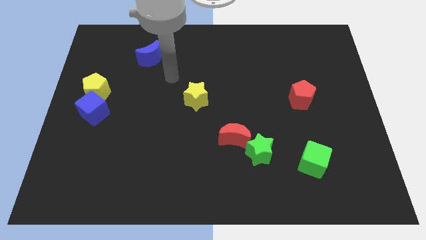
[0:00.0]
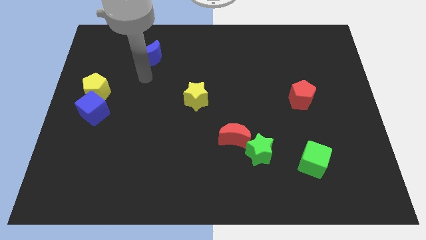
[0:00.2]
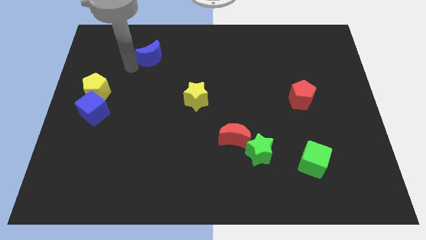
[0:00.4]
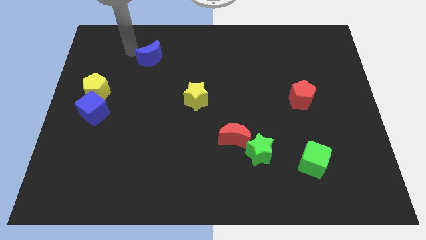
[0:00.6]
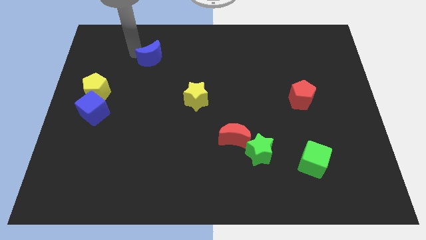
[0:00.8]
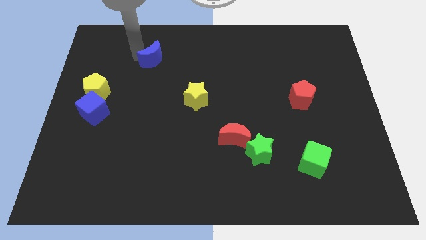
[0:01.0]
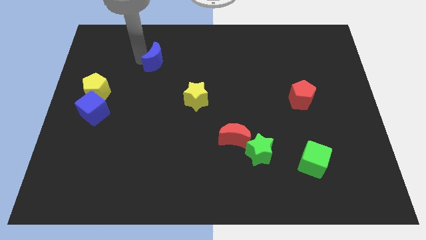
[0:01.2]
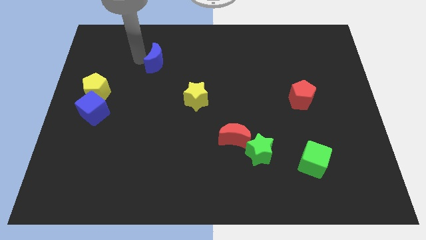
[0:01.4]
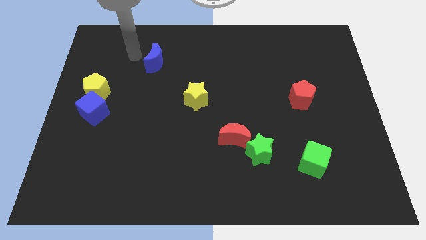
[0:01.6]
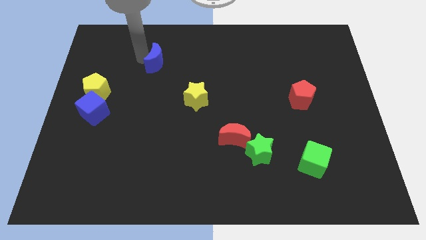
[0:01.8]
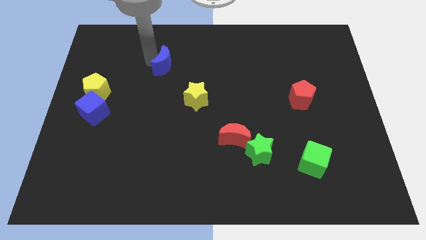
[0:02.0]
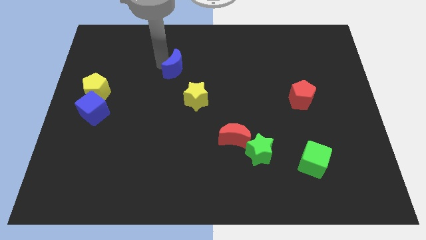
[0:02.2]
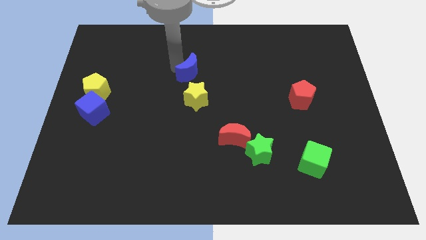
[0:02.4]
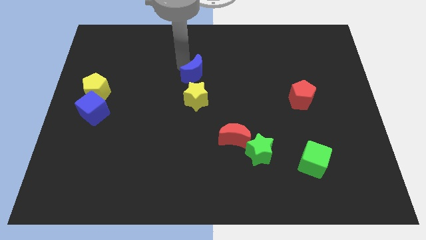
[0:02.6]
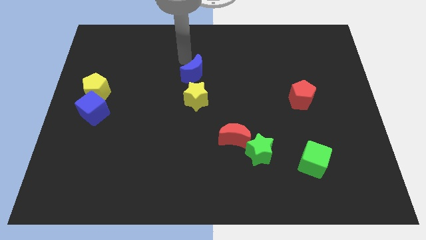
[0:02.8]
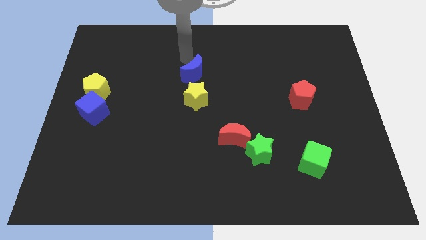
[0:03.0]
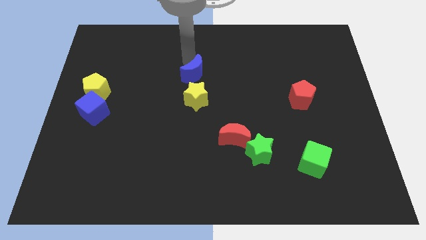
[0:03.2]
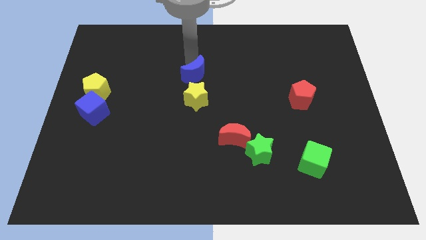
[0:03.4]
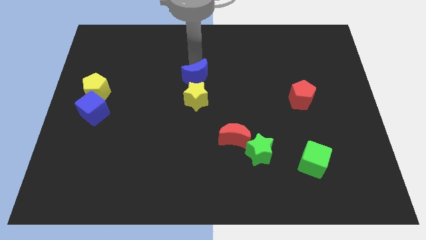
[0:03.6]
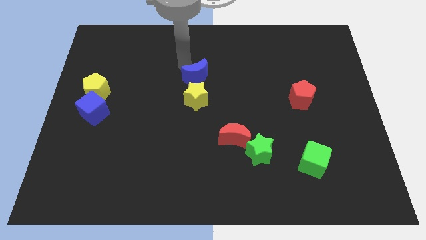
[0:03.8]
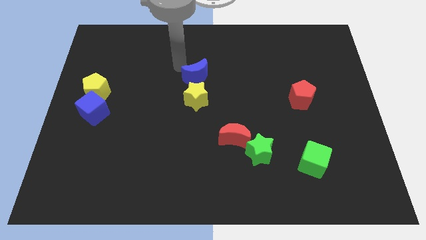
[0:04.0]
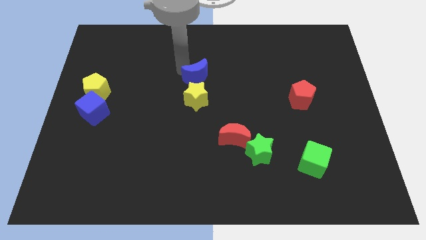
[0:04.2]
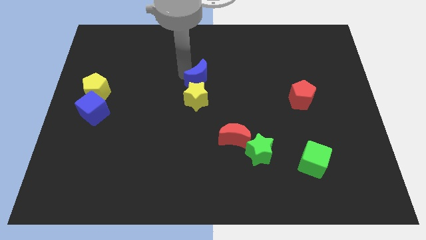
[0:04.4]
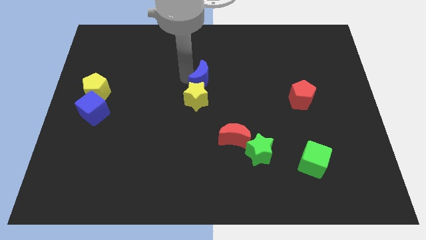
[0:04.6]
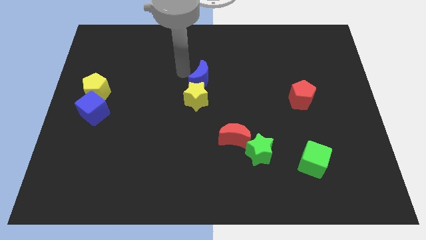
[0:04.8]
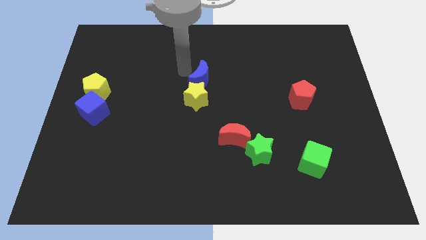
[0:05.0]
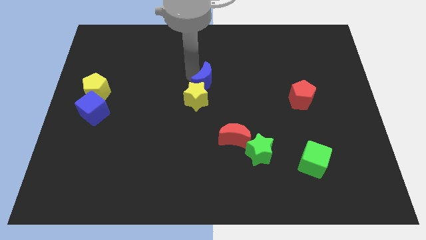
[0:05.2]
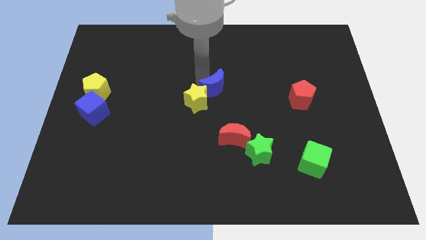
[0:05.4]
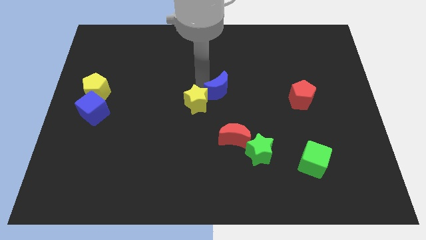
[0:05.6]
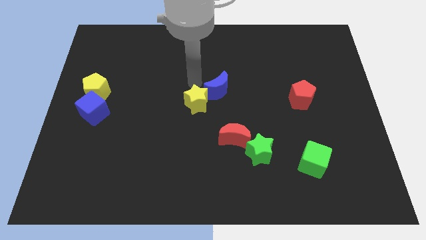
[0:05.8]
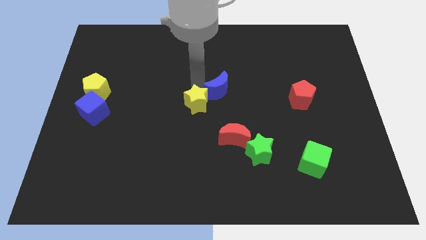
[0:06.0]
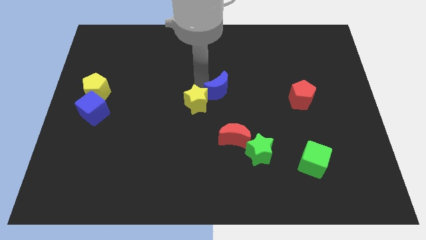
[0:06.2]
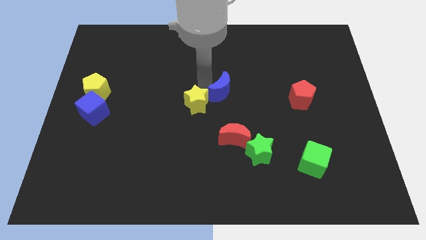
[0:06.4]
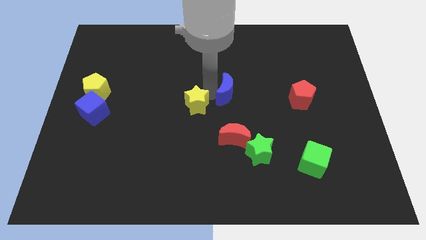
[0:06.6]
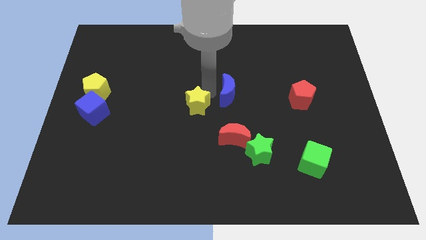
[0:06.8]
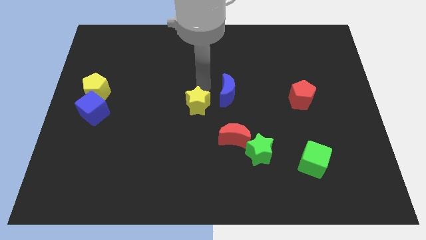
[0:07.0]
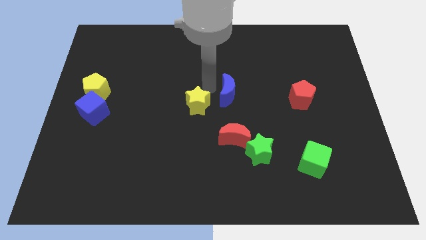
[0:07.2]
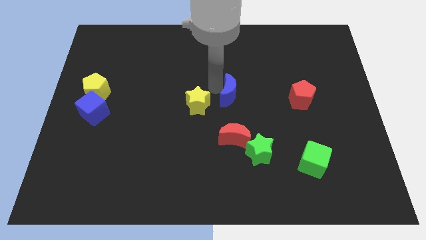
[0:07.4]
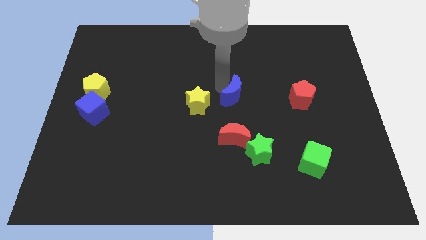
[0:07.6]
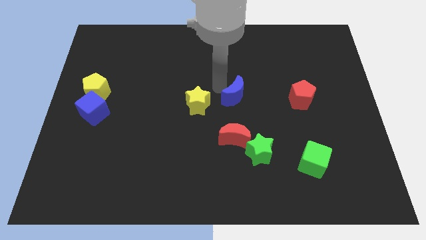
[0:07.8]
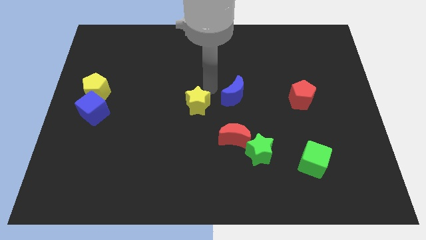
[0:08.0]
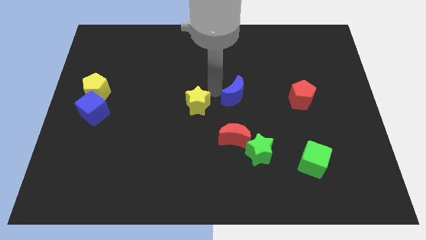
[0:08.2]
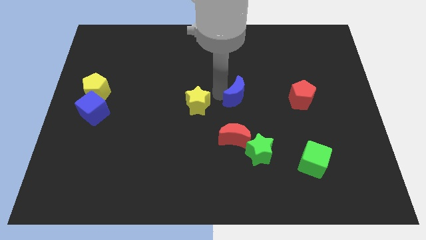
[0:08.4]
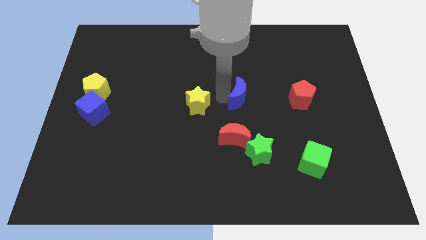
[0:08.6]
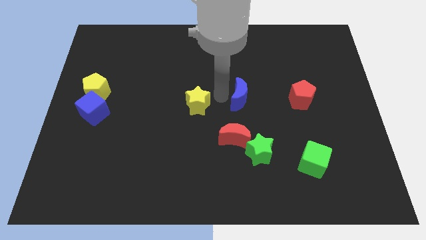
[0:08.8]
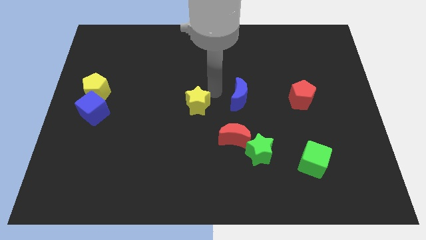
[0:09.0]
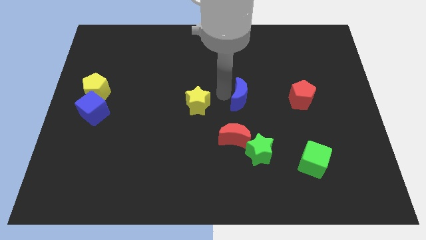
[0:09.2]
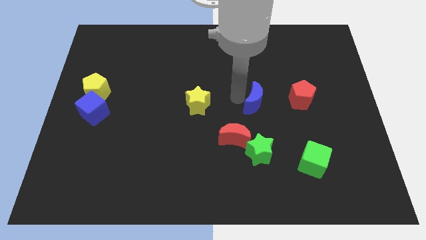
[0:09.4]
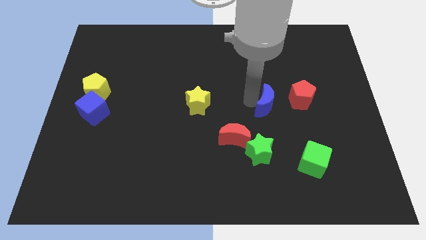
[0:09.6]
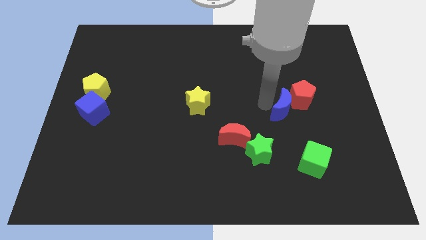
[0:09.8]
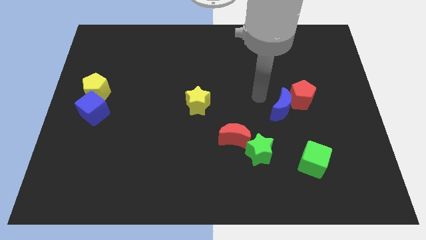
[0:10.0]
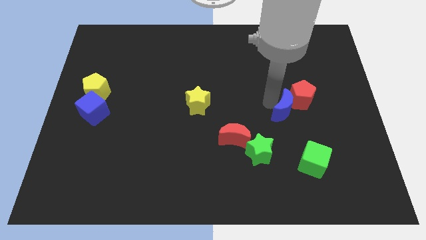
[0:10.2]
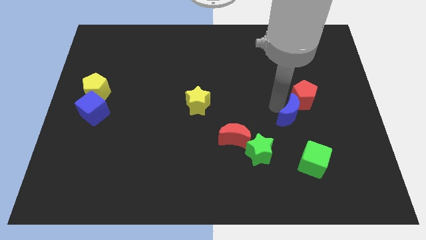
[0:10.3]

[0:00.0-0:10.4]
slide the blue moon to the top side of the green cube

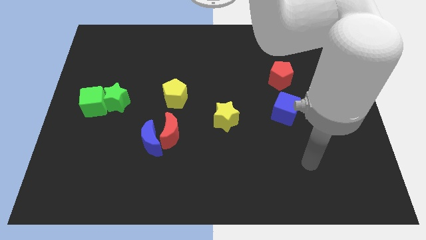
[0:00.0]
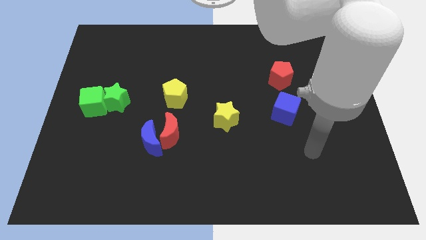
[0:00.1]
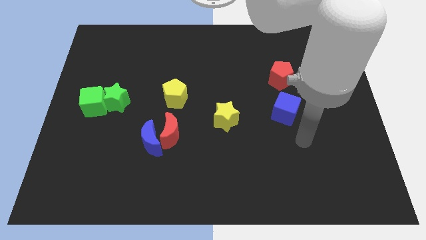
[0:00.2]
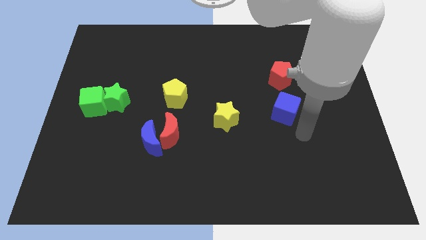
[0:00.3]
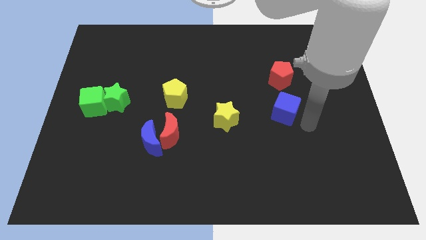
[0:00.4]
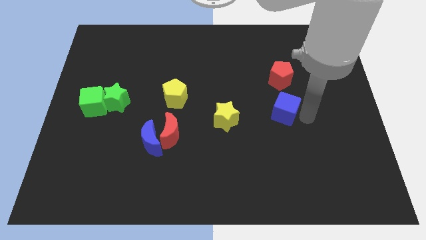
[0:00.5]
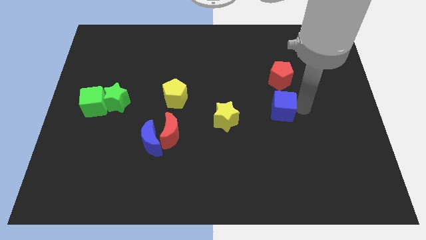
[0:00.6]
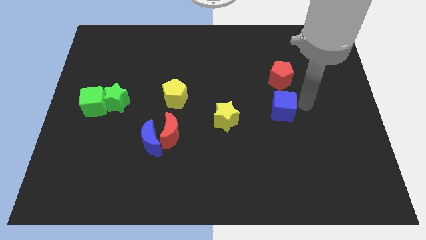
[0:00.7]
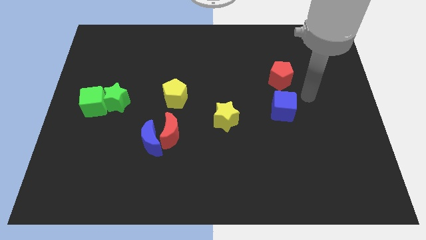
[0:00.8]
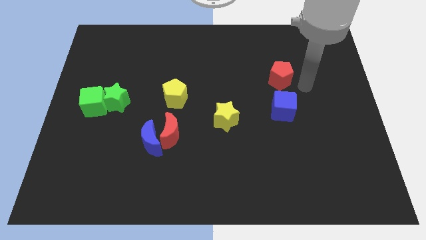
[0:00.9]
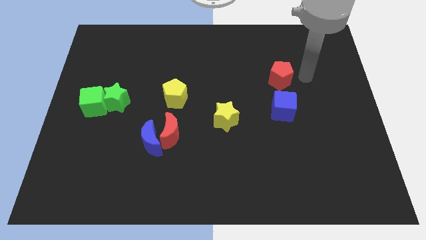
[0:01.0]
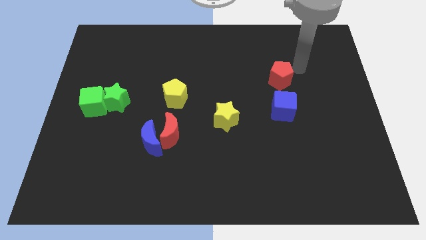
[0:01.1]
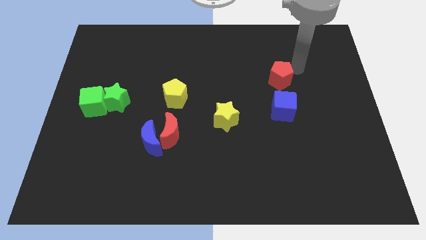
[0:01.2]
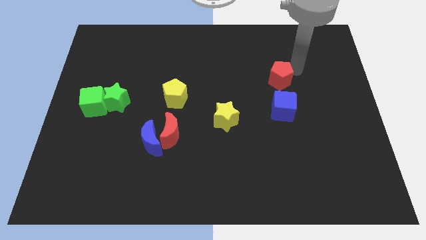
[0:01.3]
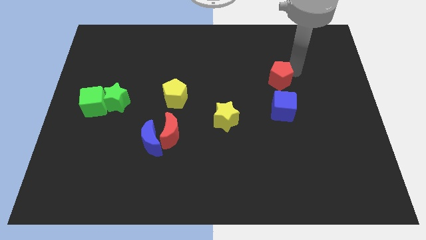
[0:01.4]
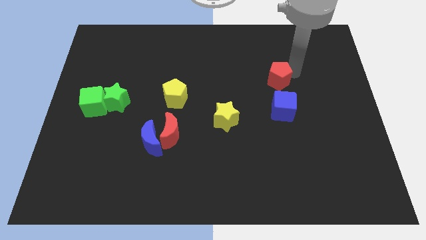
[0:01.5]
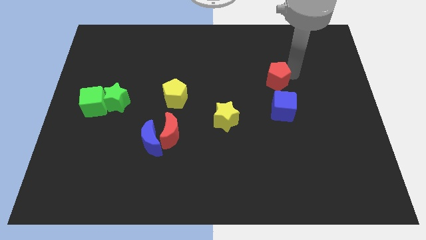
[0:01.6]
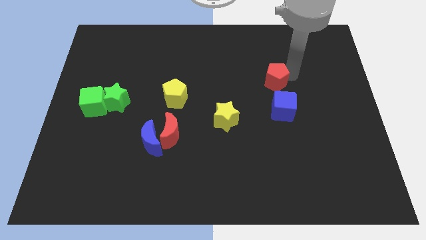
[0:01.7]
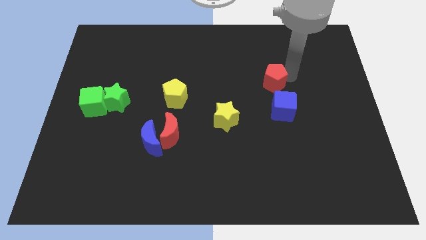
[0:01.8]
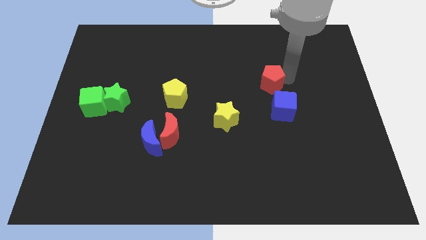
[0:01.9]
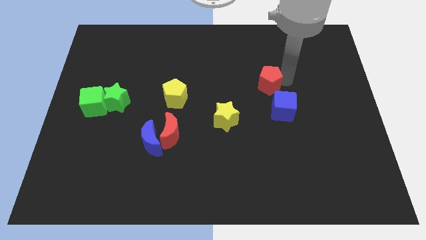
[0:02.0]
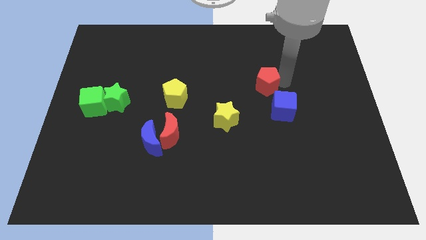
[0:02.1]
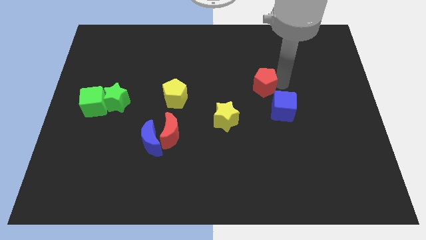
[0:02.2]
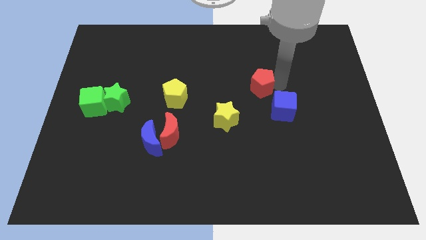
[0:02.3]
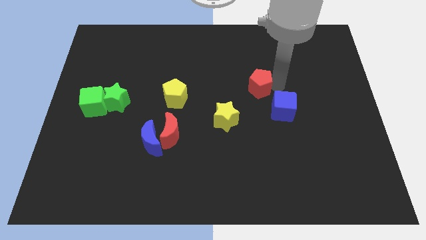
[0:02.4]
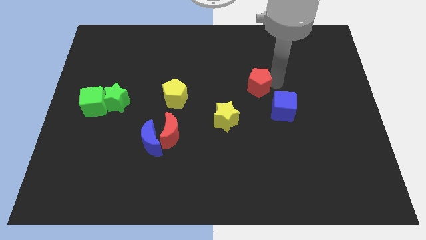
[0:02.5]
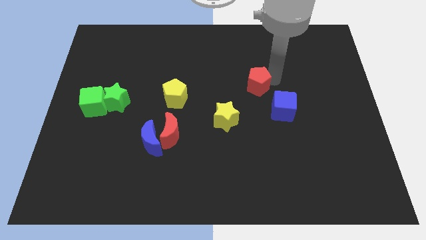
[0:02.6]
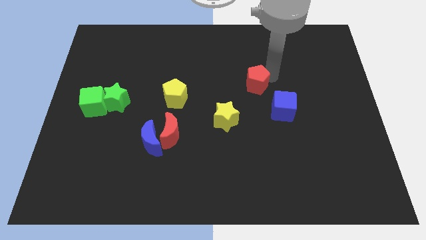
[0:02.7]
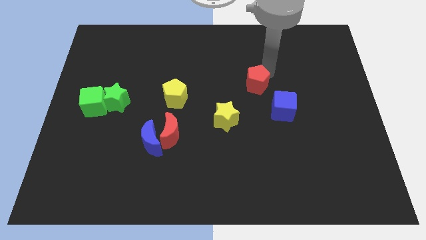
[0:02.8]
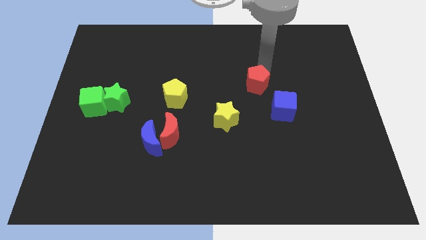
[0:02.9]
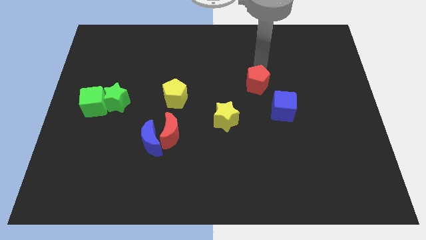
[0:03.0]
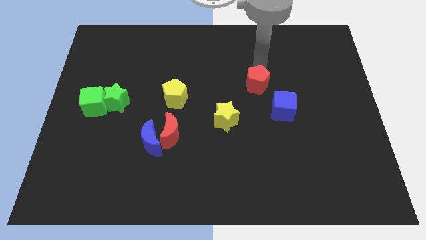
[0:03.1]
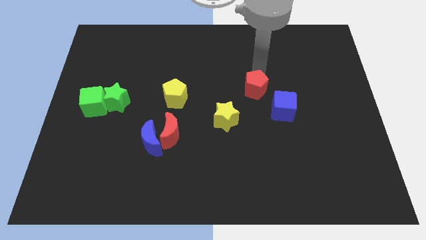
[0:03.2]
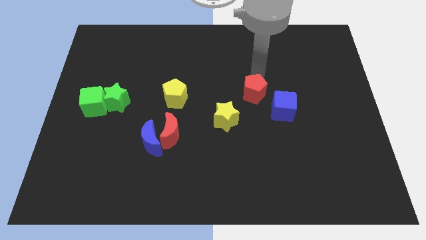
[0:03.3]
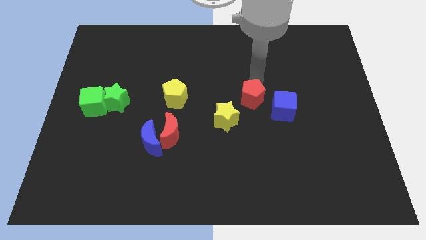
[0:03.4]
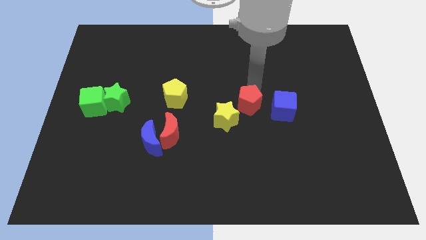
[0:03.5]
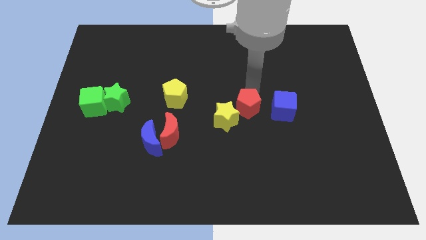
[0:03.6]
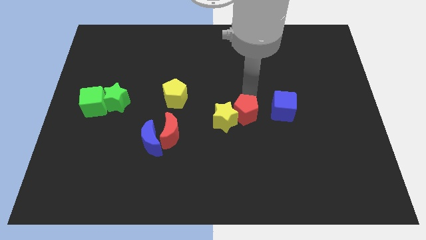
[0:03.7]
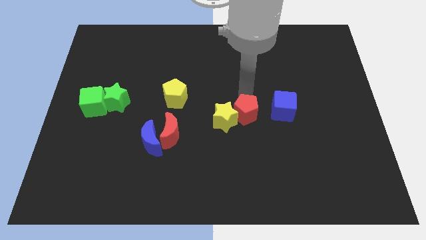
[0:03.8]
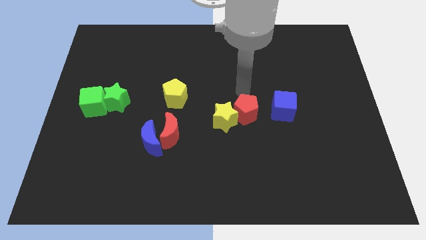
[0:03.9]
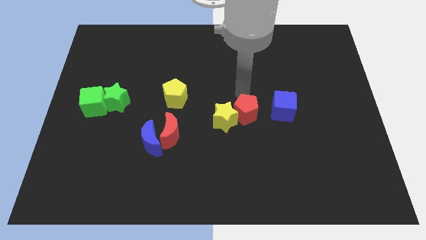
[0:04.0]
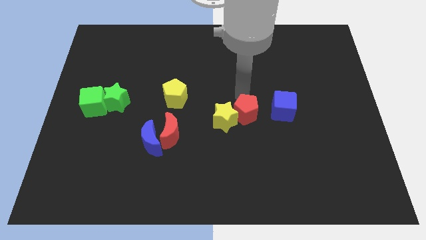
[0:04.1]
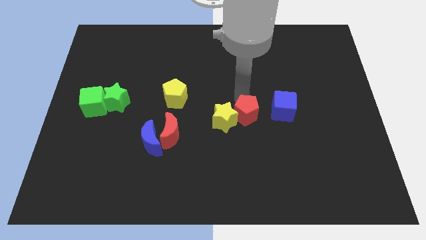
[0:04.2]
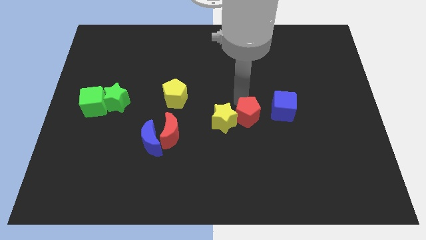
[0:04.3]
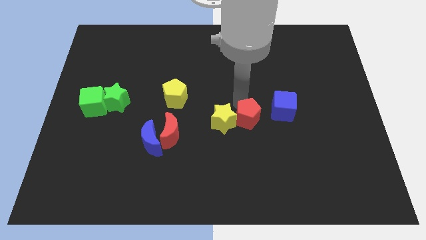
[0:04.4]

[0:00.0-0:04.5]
push the red pentagon diagonally down and to the right of the yellow star
